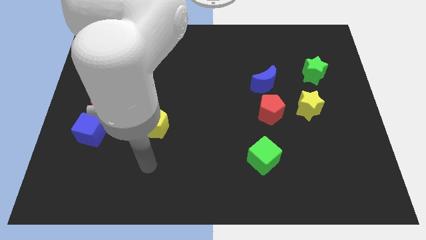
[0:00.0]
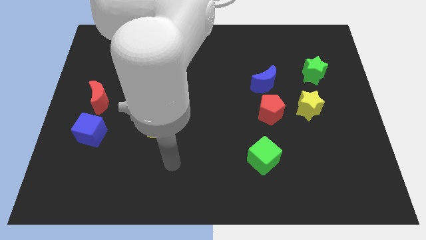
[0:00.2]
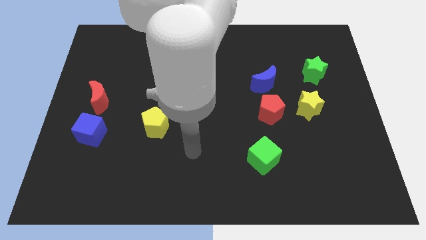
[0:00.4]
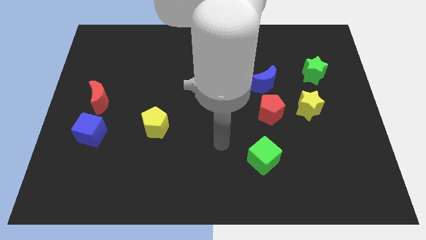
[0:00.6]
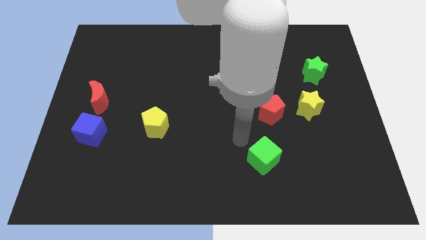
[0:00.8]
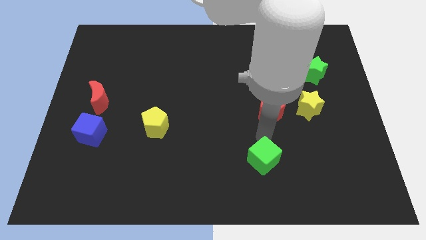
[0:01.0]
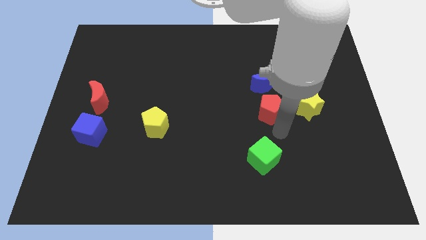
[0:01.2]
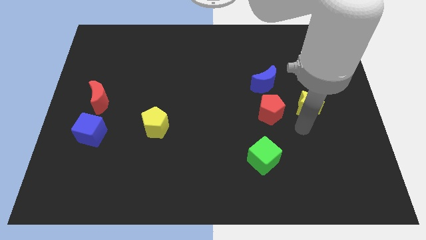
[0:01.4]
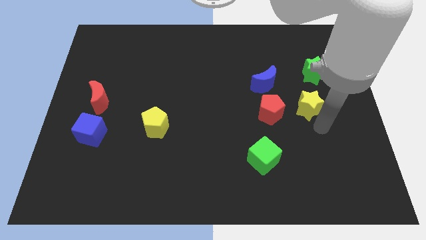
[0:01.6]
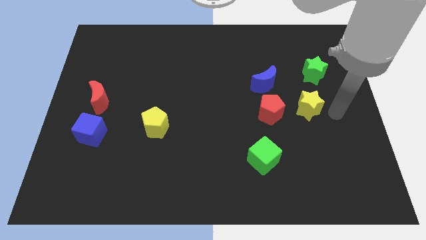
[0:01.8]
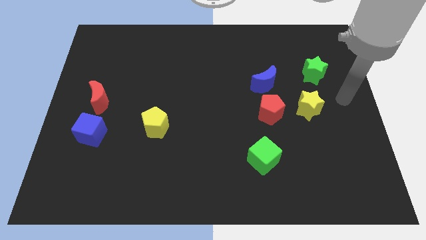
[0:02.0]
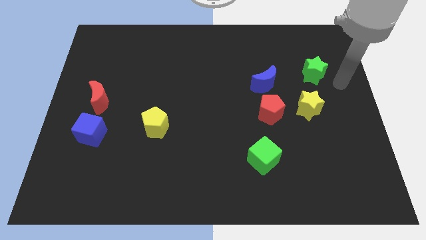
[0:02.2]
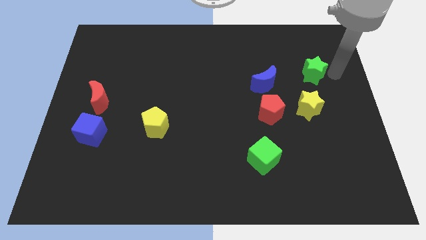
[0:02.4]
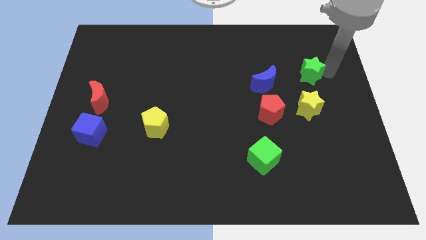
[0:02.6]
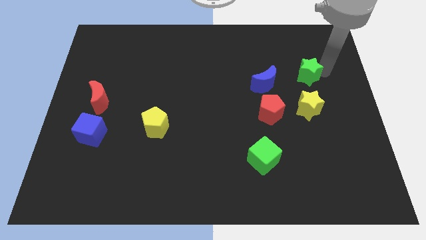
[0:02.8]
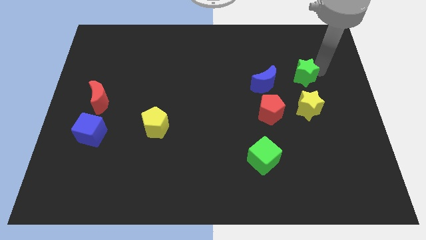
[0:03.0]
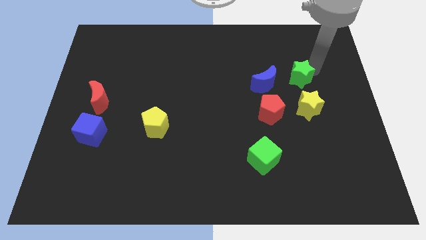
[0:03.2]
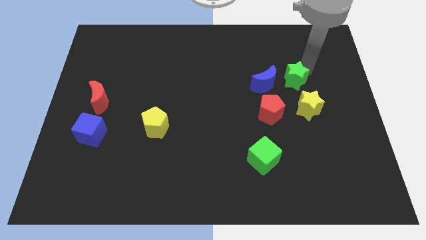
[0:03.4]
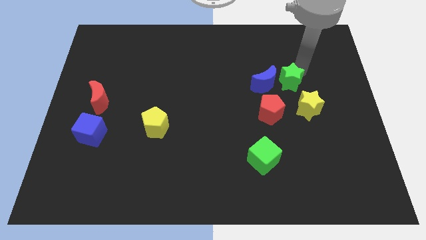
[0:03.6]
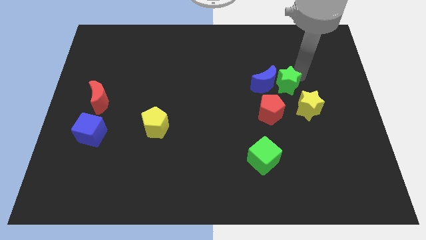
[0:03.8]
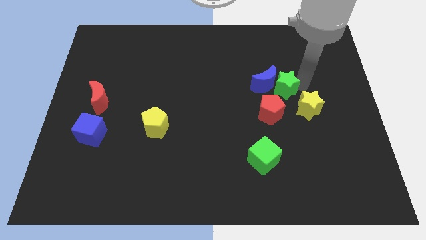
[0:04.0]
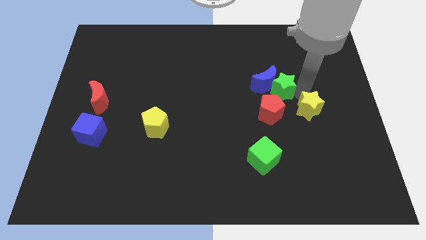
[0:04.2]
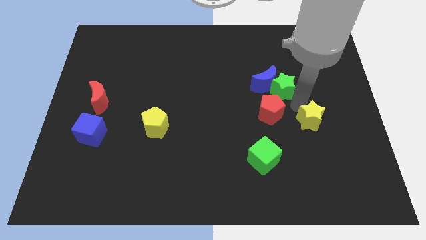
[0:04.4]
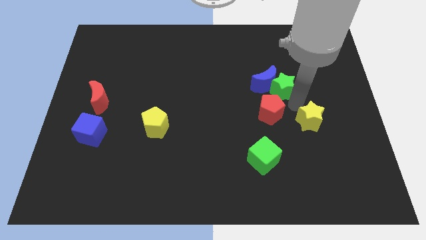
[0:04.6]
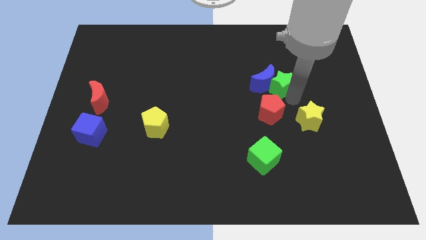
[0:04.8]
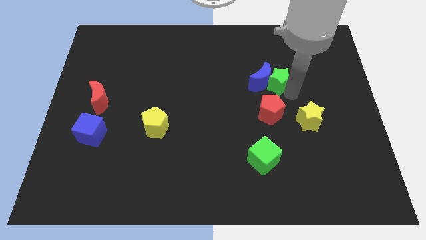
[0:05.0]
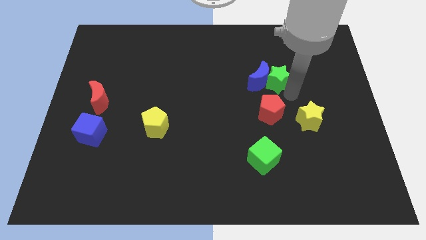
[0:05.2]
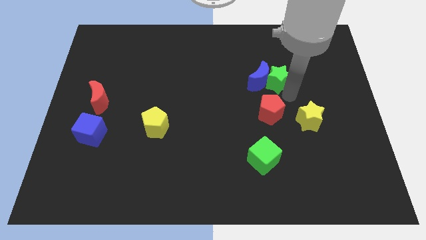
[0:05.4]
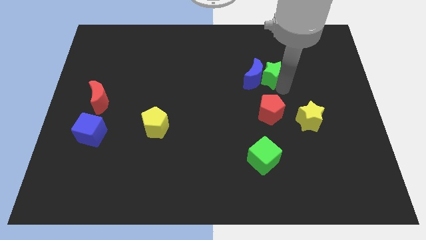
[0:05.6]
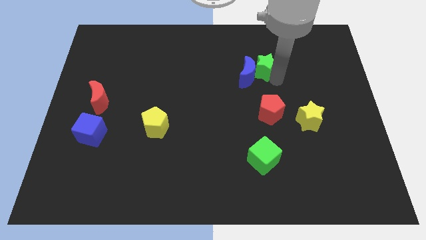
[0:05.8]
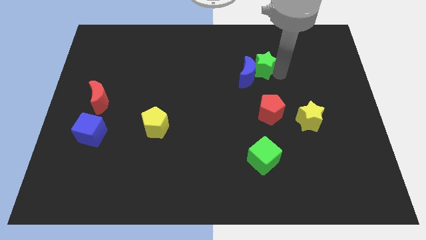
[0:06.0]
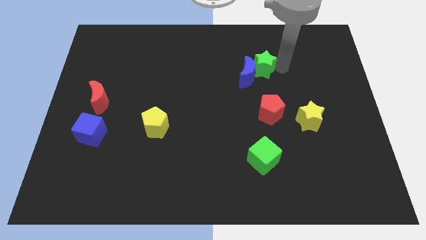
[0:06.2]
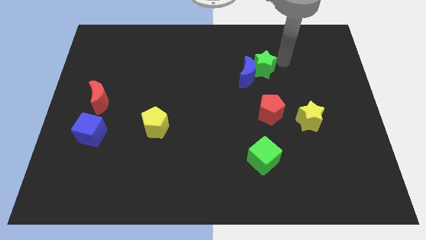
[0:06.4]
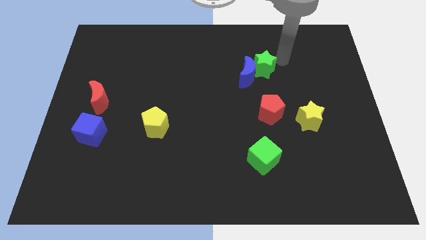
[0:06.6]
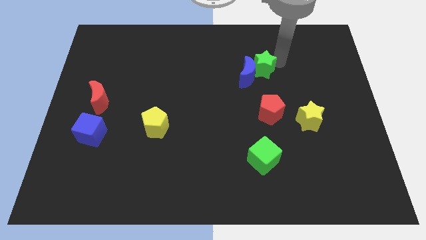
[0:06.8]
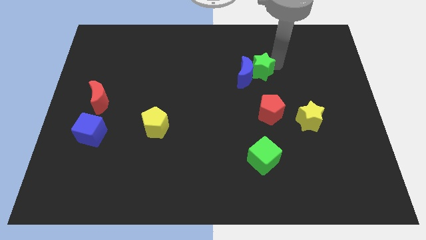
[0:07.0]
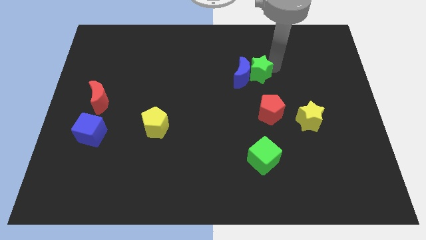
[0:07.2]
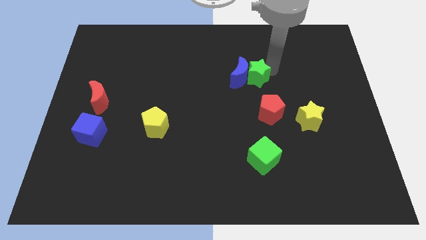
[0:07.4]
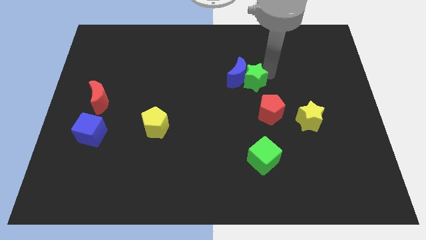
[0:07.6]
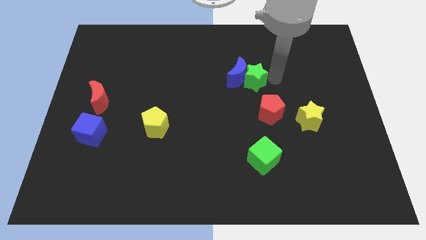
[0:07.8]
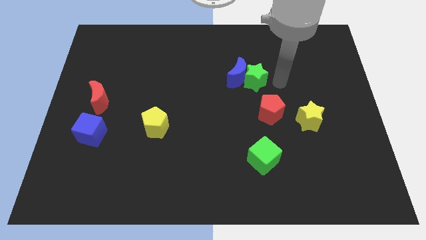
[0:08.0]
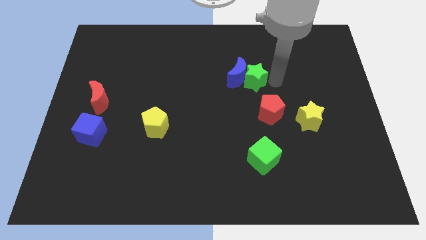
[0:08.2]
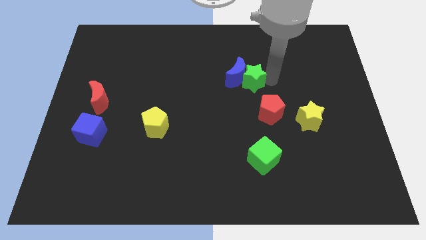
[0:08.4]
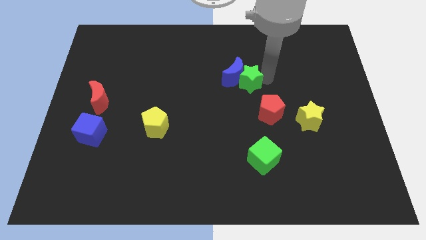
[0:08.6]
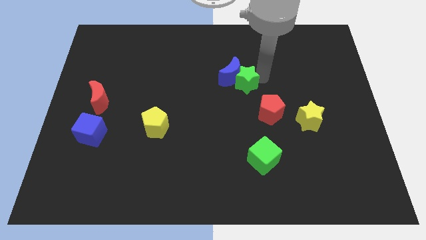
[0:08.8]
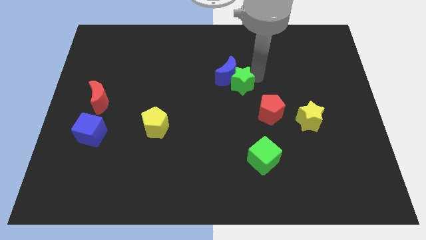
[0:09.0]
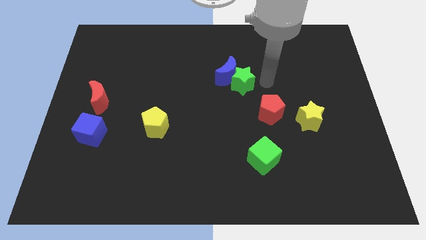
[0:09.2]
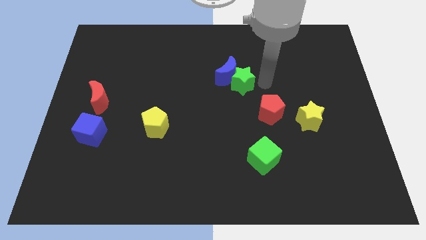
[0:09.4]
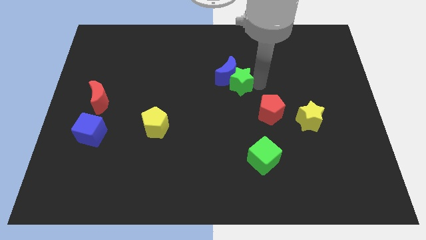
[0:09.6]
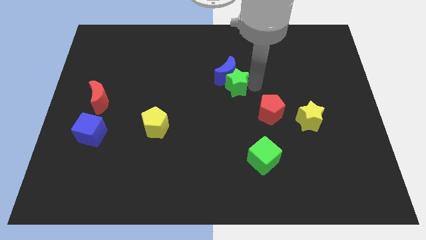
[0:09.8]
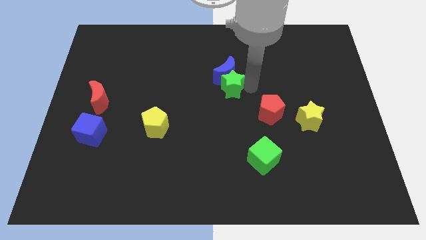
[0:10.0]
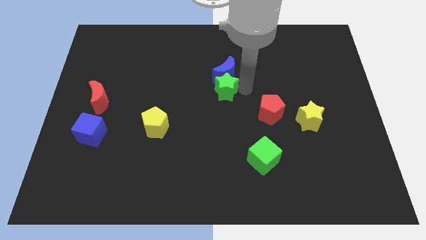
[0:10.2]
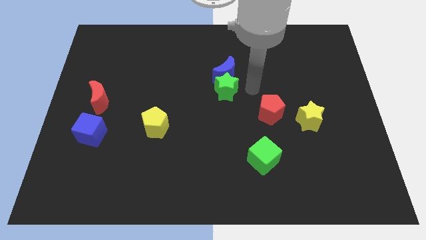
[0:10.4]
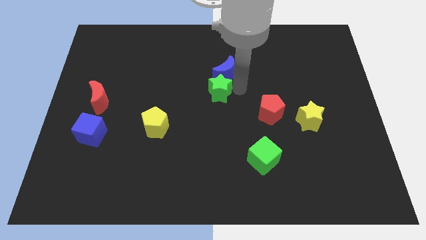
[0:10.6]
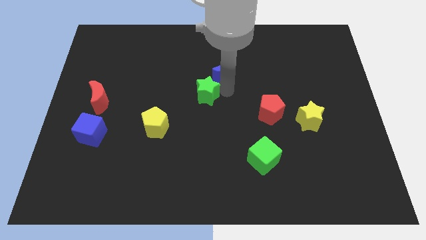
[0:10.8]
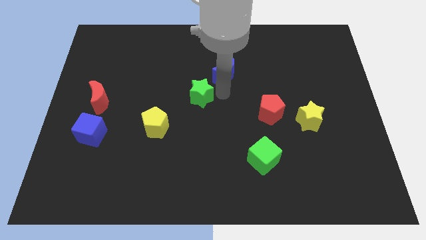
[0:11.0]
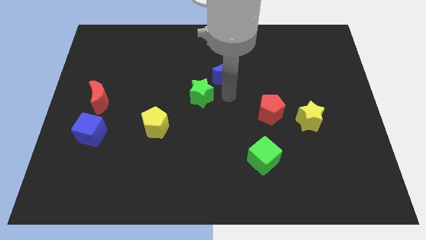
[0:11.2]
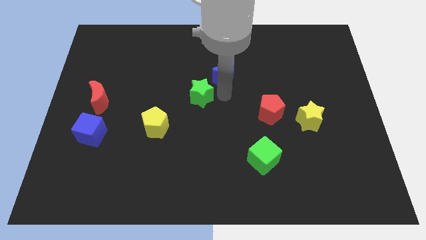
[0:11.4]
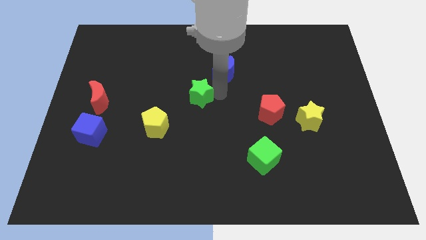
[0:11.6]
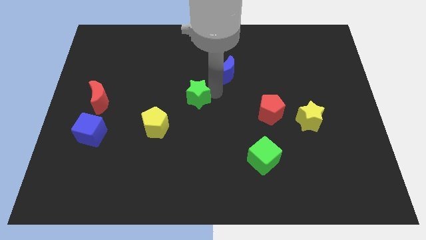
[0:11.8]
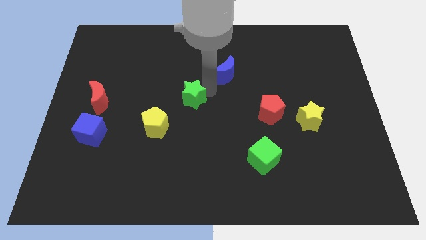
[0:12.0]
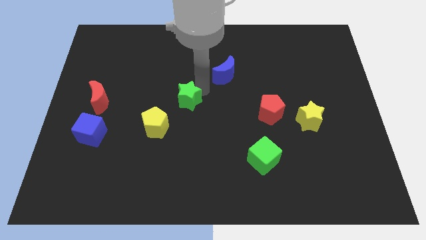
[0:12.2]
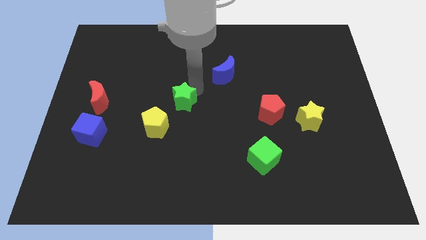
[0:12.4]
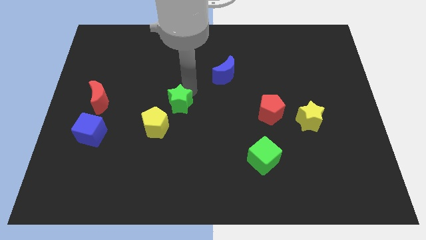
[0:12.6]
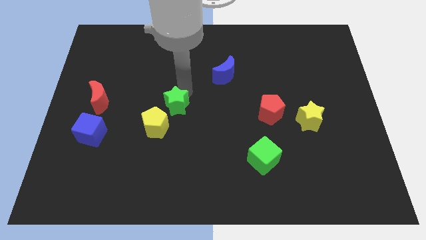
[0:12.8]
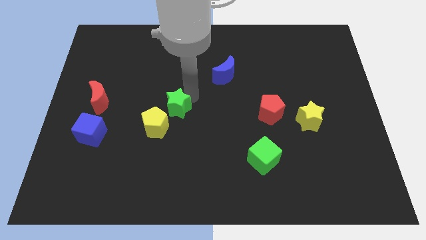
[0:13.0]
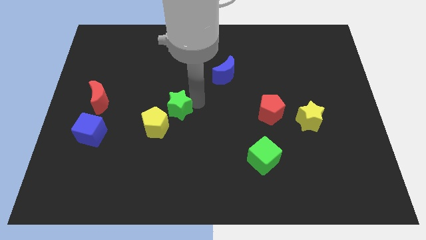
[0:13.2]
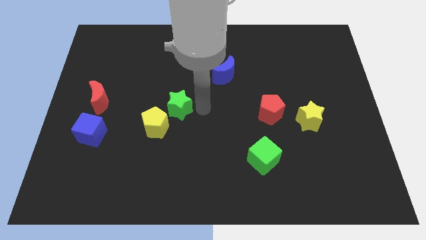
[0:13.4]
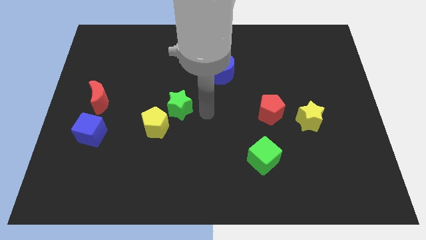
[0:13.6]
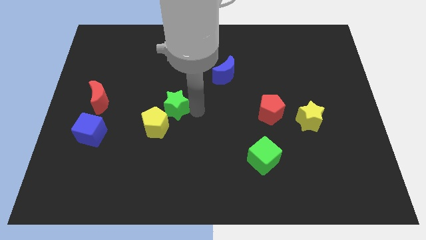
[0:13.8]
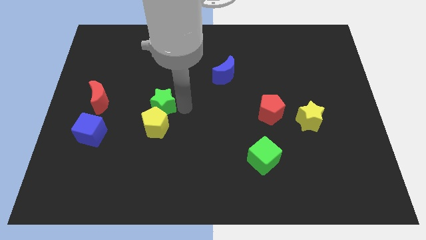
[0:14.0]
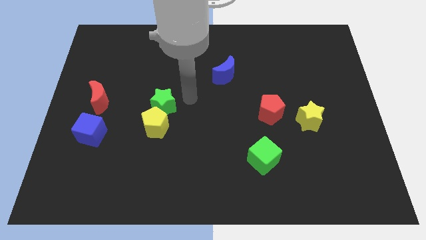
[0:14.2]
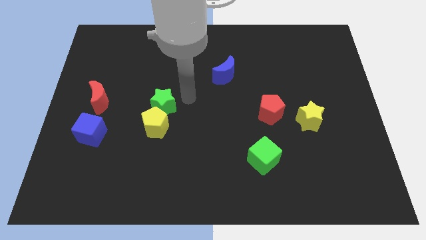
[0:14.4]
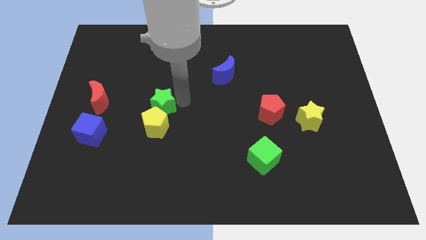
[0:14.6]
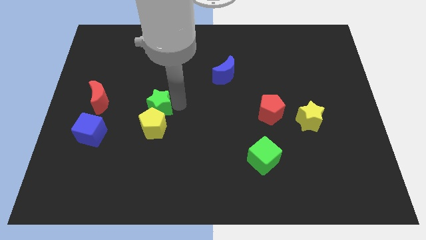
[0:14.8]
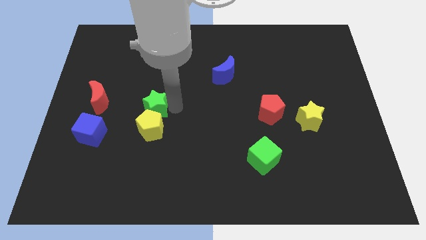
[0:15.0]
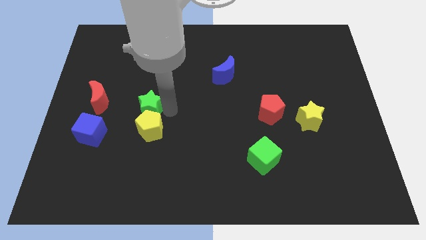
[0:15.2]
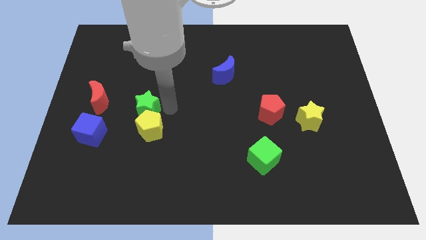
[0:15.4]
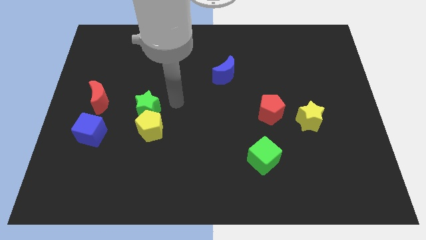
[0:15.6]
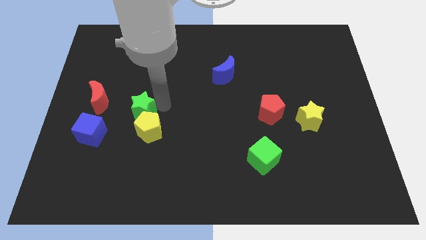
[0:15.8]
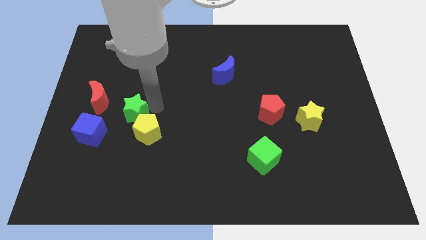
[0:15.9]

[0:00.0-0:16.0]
slide the green star to the bottom right side of the red moon
